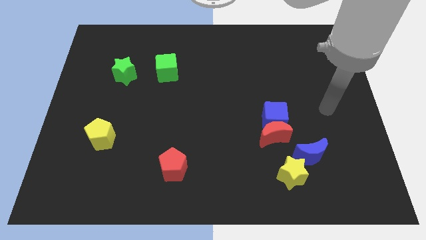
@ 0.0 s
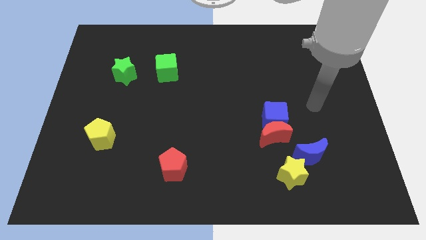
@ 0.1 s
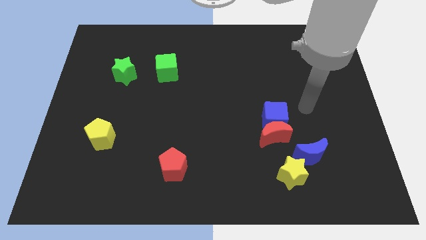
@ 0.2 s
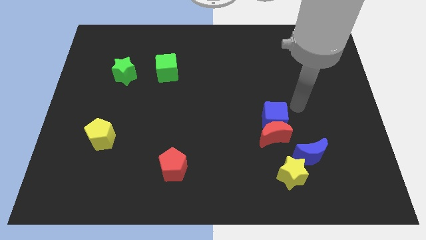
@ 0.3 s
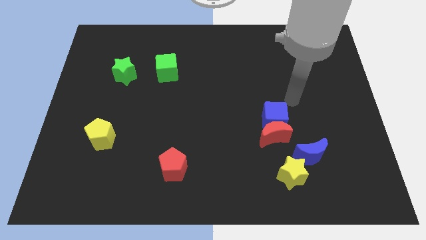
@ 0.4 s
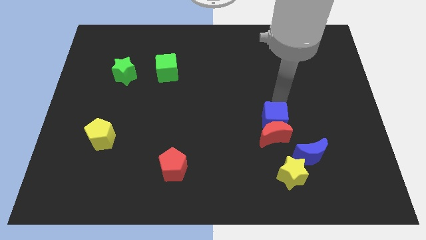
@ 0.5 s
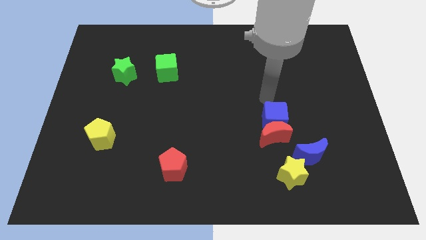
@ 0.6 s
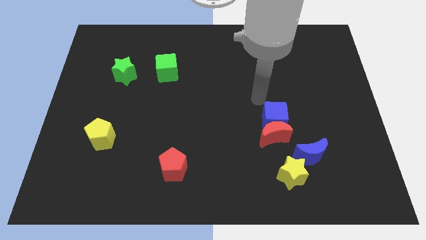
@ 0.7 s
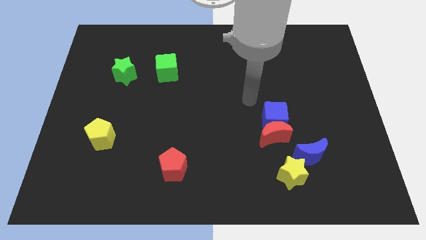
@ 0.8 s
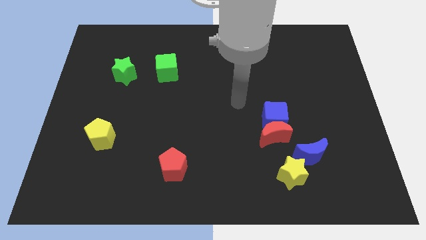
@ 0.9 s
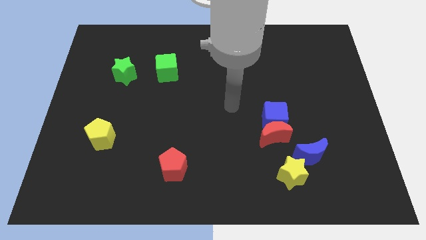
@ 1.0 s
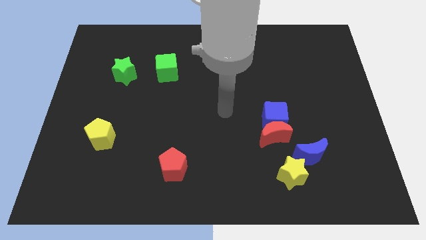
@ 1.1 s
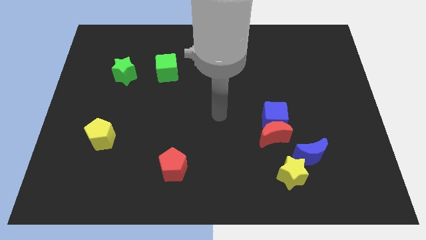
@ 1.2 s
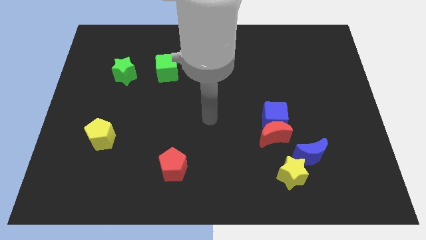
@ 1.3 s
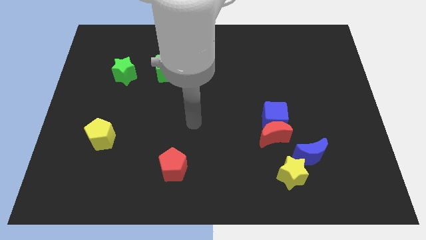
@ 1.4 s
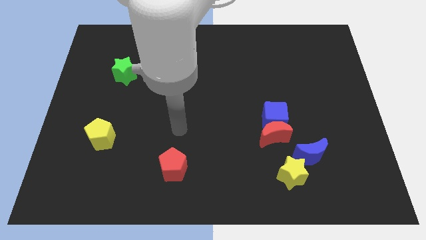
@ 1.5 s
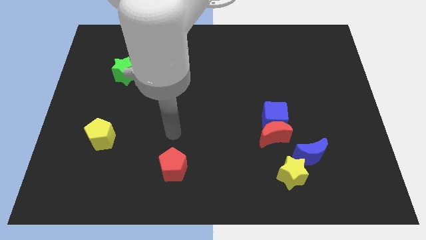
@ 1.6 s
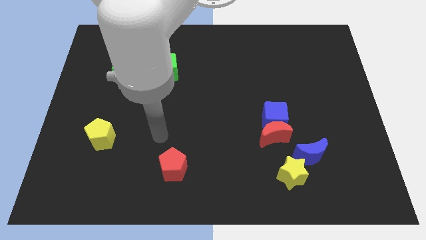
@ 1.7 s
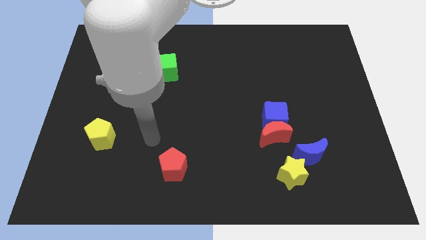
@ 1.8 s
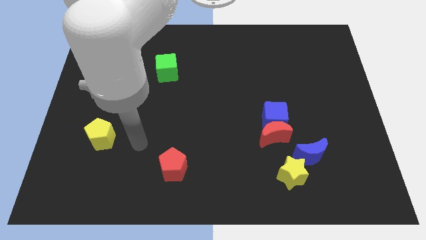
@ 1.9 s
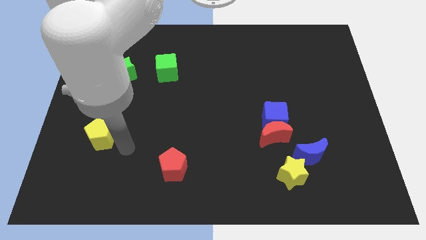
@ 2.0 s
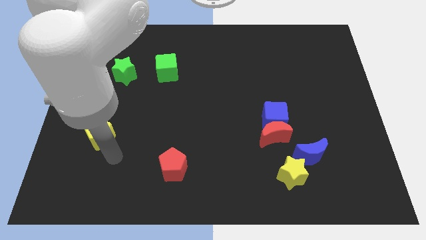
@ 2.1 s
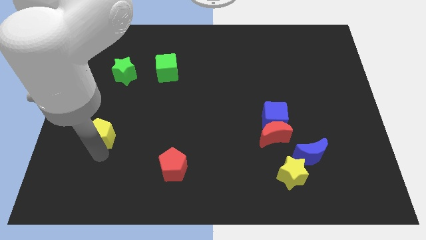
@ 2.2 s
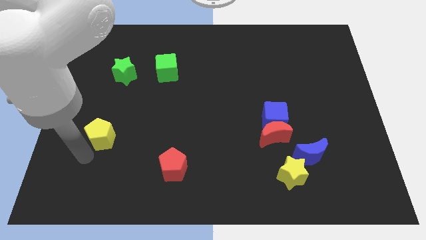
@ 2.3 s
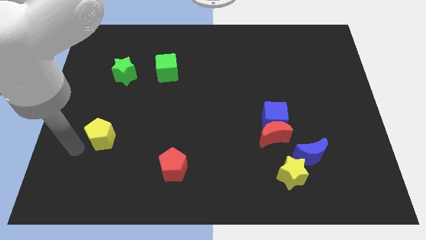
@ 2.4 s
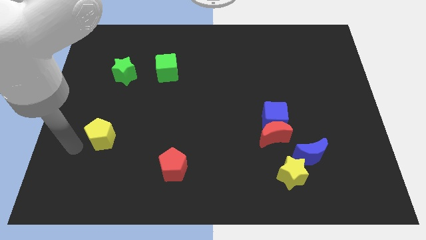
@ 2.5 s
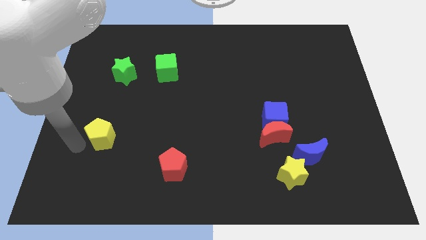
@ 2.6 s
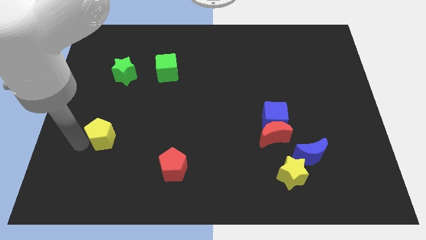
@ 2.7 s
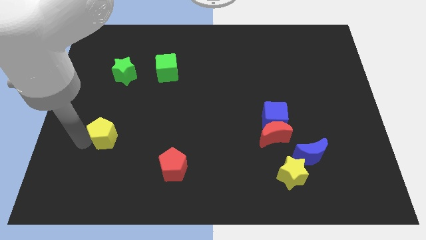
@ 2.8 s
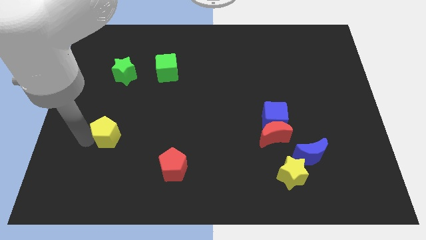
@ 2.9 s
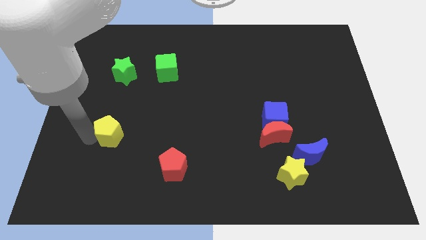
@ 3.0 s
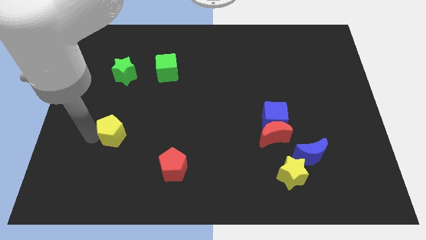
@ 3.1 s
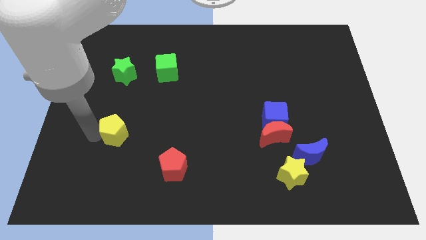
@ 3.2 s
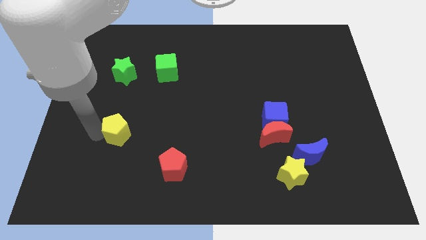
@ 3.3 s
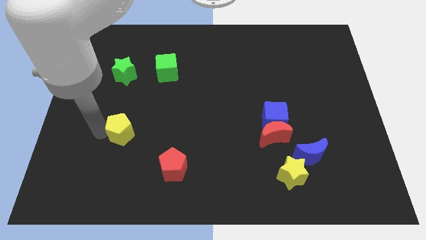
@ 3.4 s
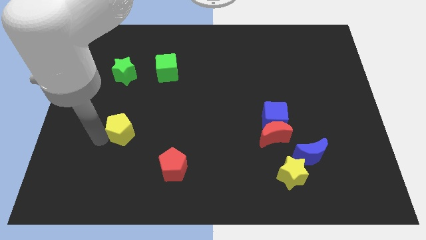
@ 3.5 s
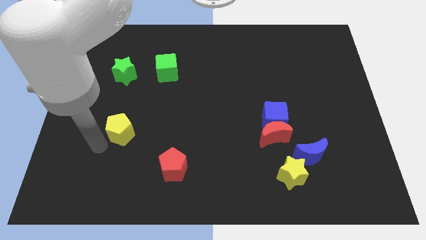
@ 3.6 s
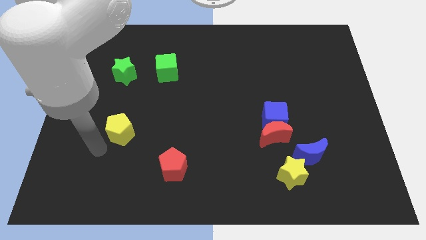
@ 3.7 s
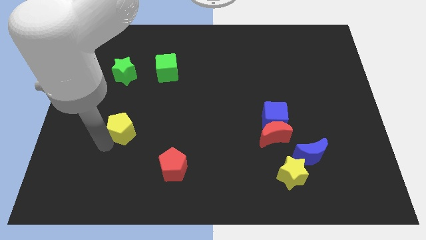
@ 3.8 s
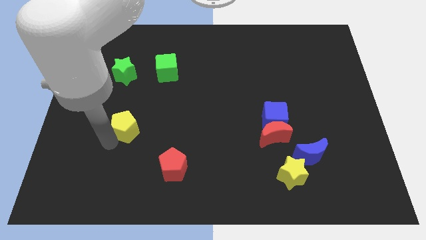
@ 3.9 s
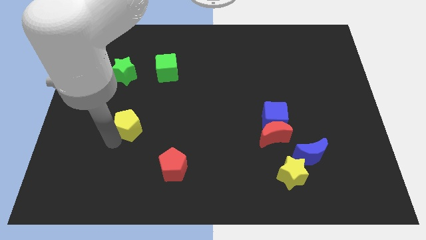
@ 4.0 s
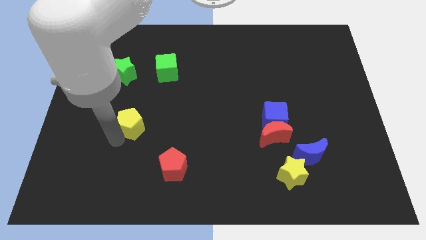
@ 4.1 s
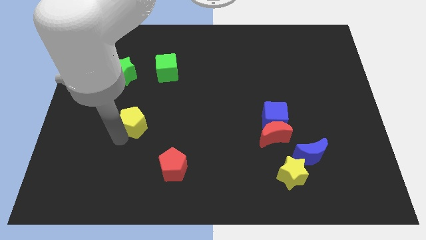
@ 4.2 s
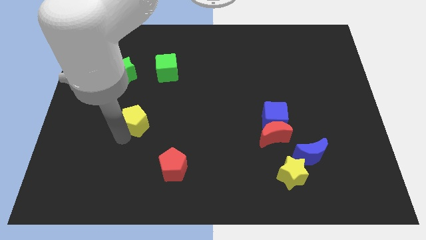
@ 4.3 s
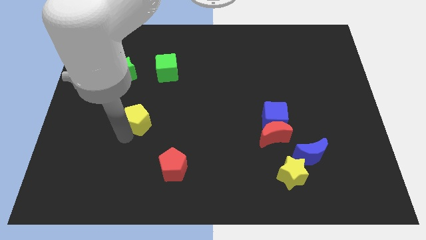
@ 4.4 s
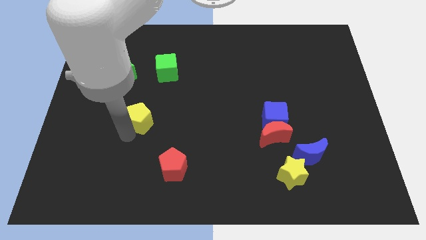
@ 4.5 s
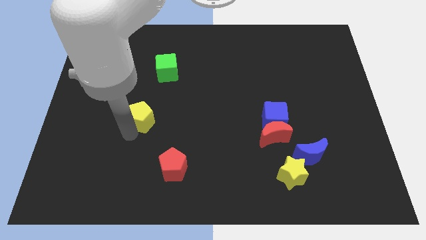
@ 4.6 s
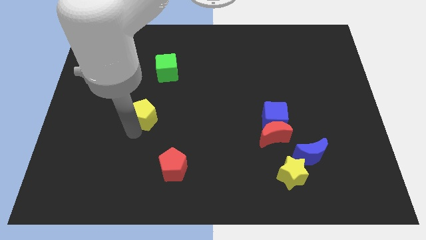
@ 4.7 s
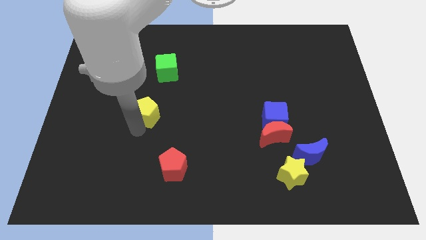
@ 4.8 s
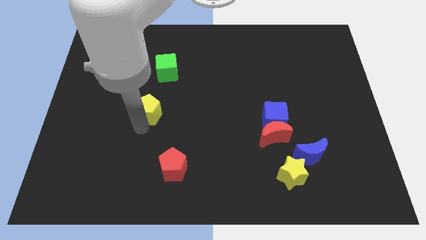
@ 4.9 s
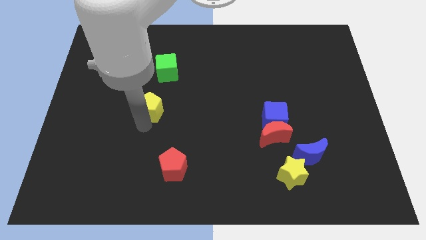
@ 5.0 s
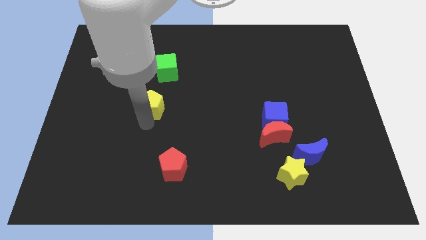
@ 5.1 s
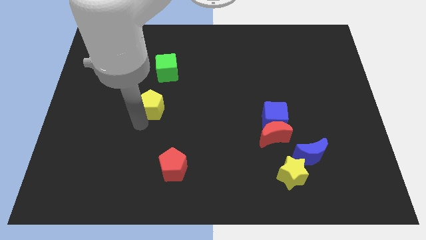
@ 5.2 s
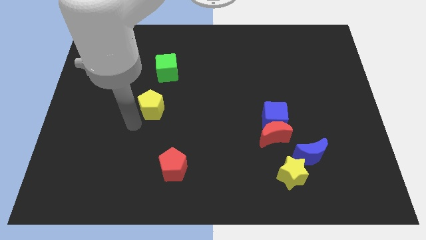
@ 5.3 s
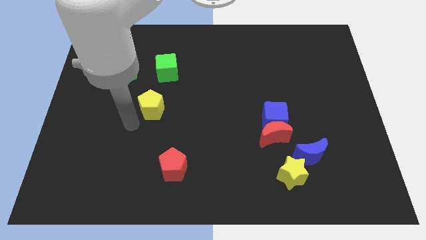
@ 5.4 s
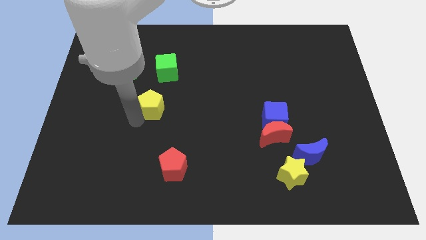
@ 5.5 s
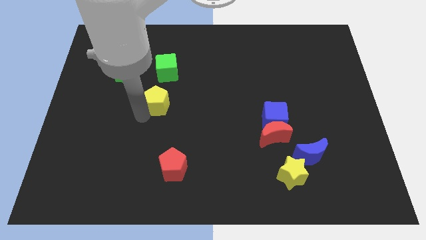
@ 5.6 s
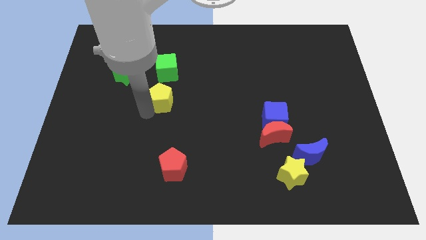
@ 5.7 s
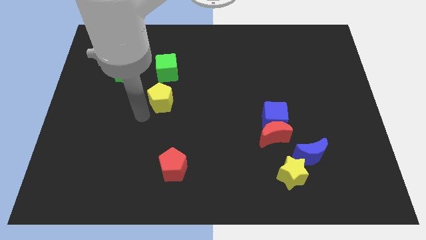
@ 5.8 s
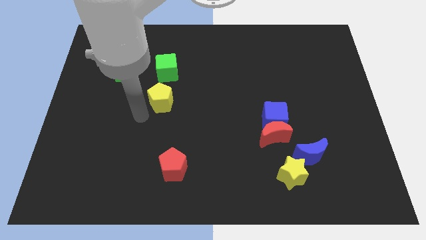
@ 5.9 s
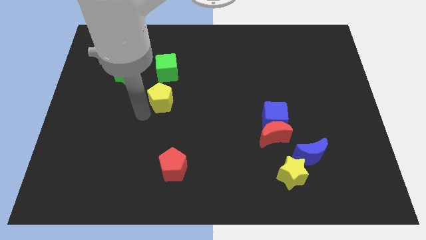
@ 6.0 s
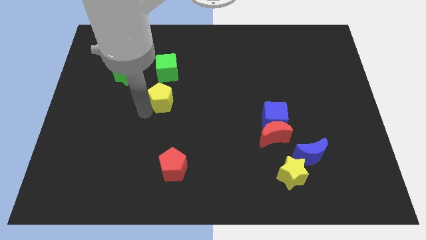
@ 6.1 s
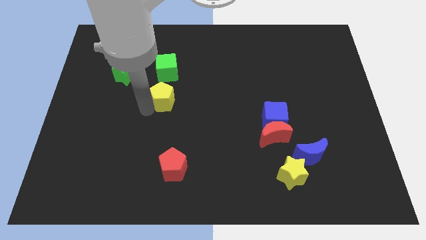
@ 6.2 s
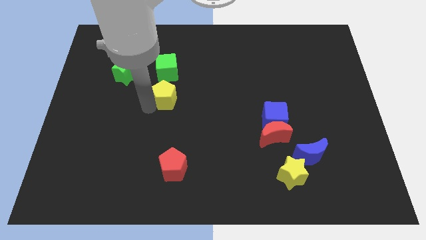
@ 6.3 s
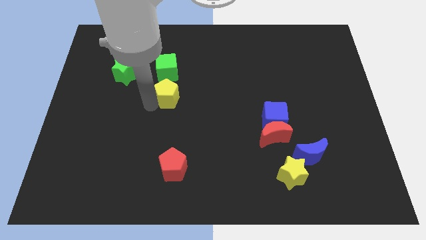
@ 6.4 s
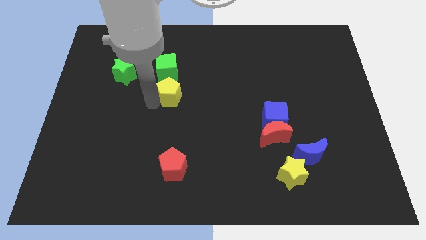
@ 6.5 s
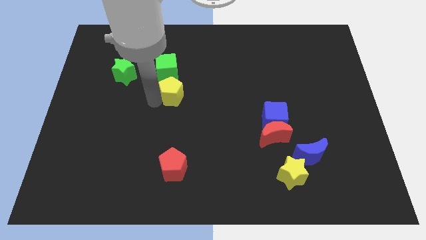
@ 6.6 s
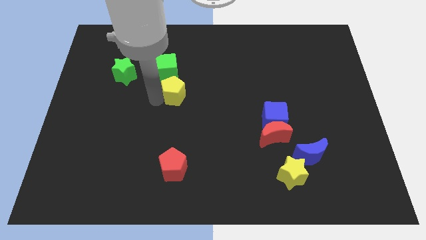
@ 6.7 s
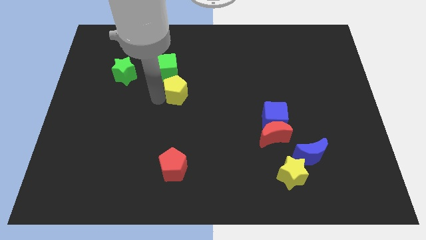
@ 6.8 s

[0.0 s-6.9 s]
push the yellow pentagon upwards and then right

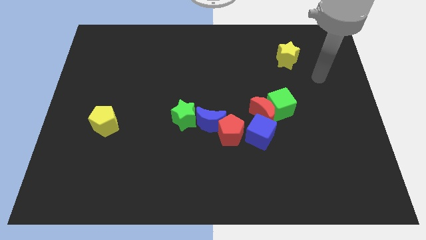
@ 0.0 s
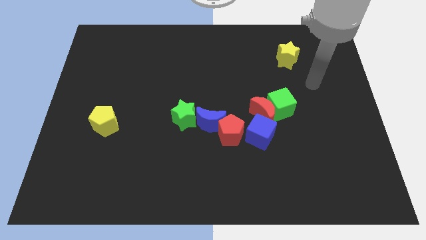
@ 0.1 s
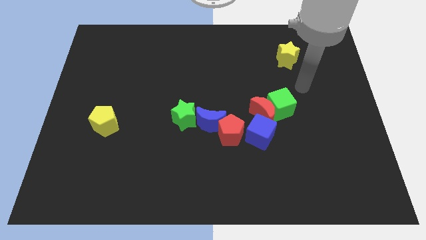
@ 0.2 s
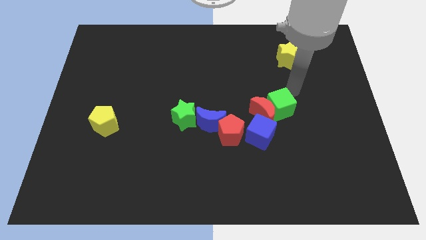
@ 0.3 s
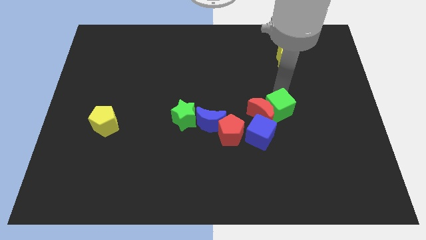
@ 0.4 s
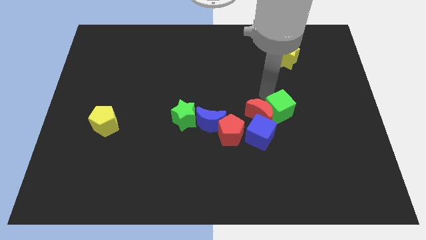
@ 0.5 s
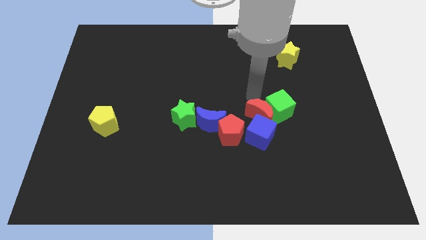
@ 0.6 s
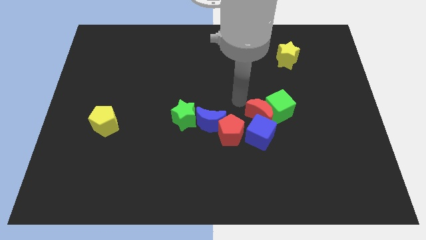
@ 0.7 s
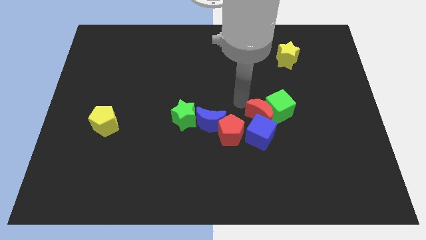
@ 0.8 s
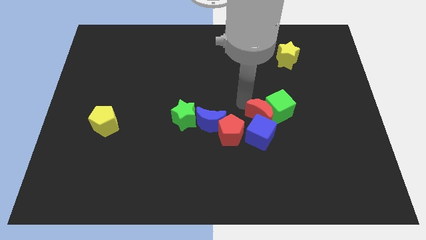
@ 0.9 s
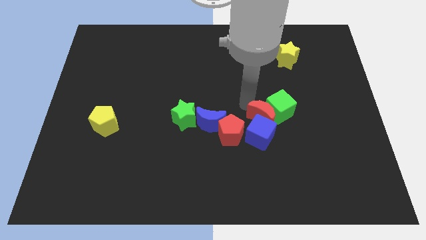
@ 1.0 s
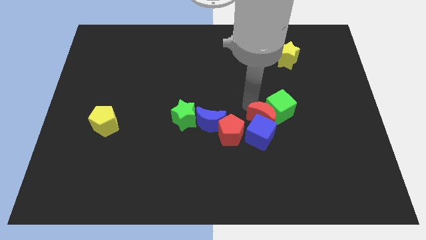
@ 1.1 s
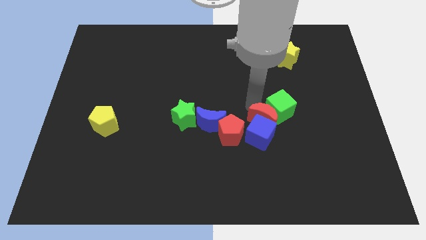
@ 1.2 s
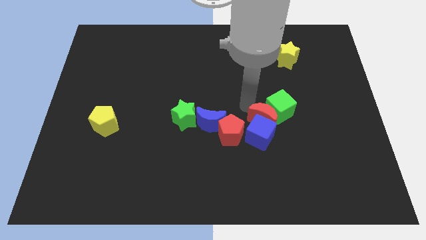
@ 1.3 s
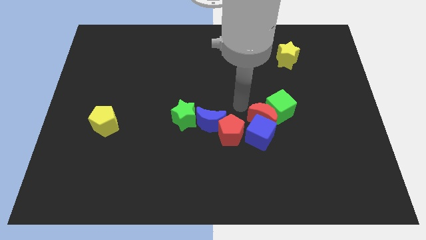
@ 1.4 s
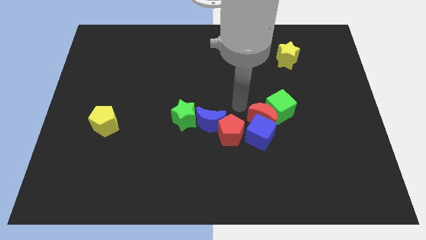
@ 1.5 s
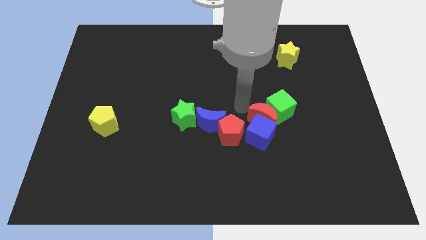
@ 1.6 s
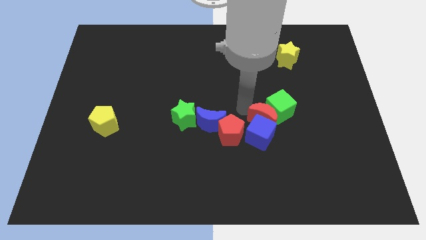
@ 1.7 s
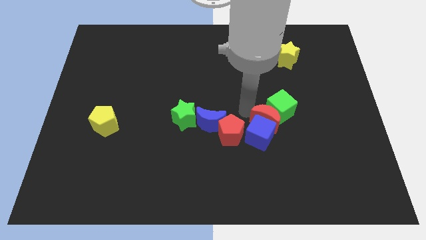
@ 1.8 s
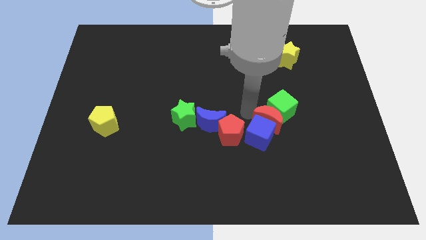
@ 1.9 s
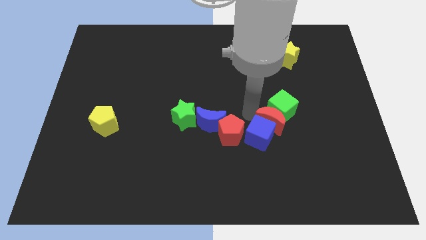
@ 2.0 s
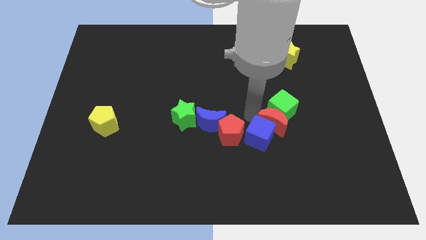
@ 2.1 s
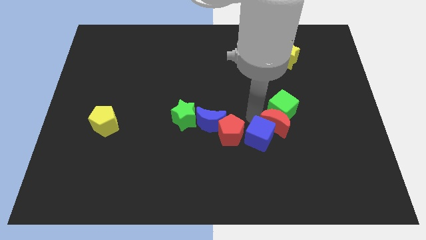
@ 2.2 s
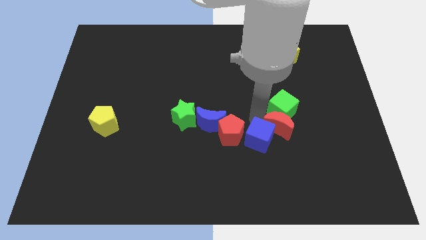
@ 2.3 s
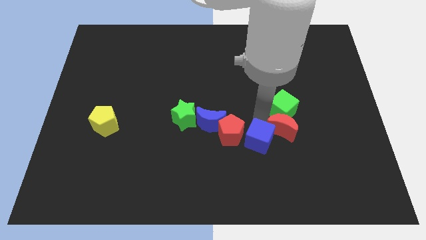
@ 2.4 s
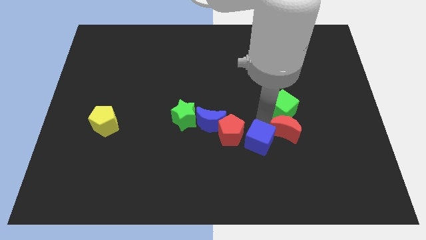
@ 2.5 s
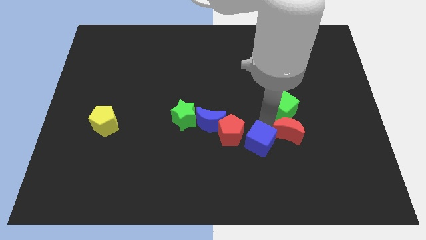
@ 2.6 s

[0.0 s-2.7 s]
slide the red moon somewhat down and to the right
